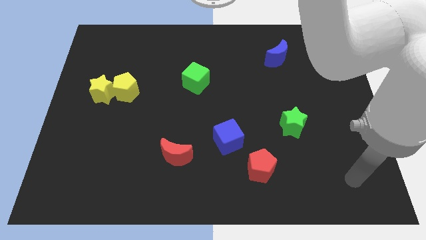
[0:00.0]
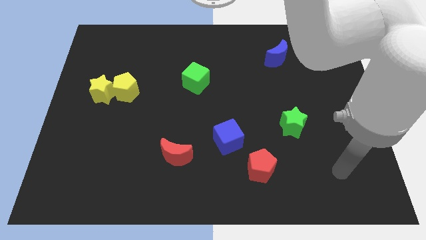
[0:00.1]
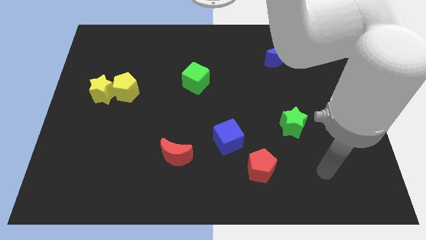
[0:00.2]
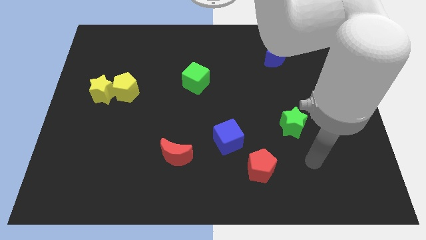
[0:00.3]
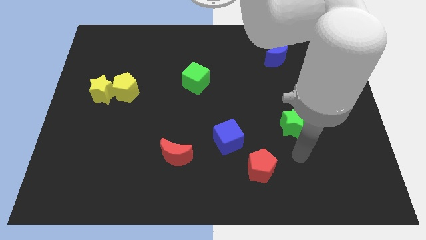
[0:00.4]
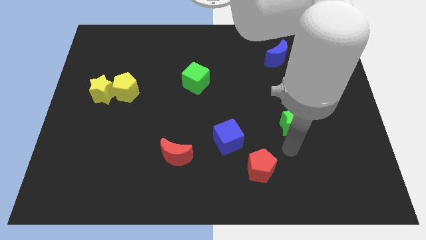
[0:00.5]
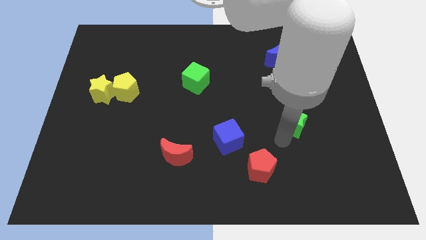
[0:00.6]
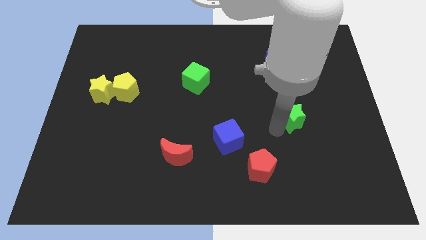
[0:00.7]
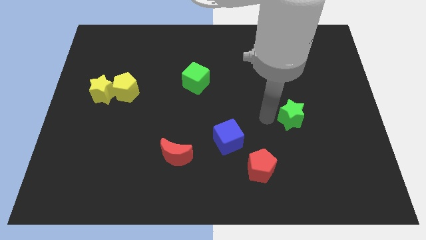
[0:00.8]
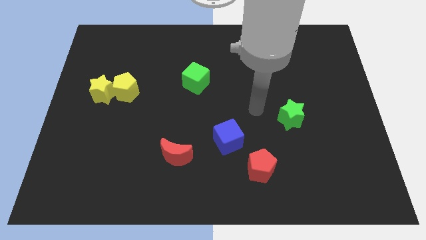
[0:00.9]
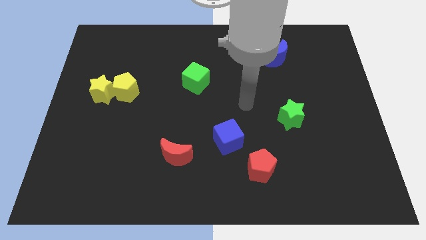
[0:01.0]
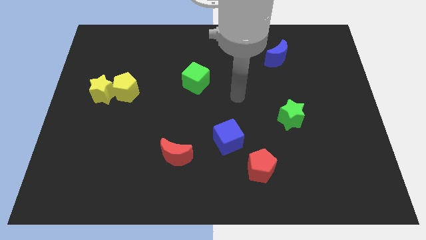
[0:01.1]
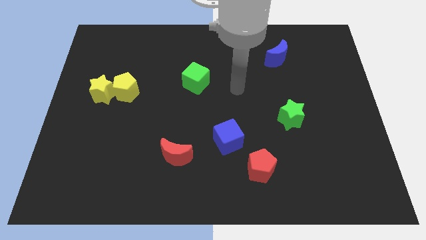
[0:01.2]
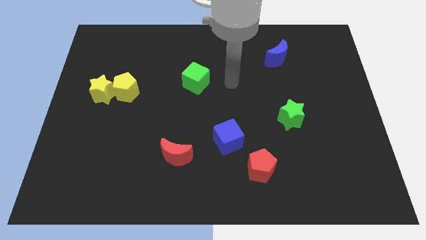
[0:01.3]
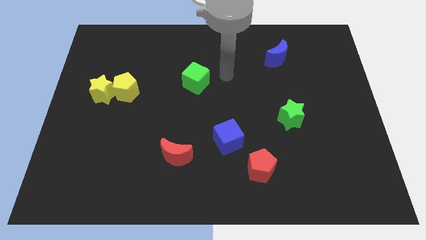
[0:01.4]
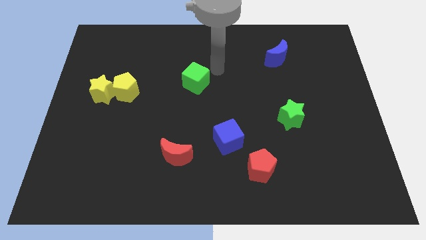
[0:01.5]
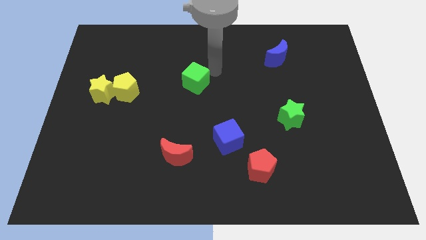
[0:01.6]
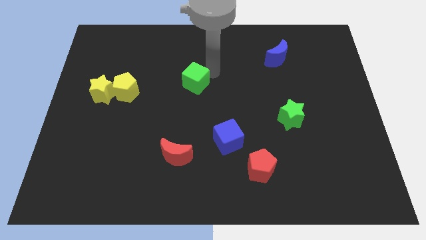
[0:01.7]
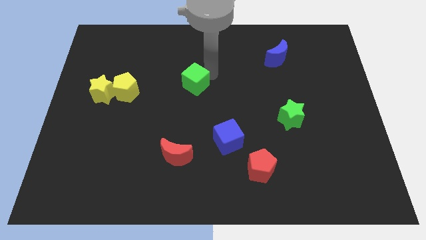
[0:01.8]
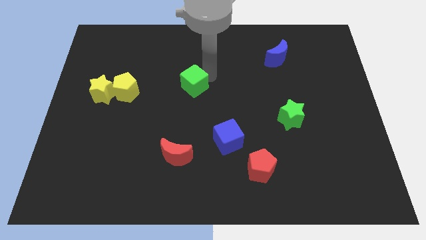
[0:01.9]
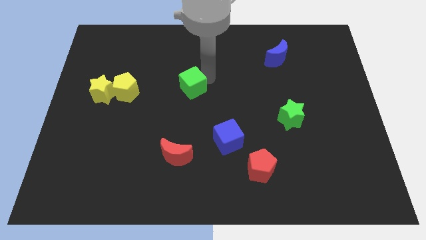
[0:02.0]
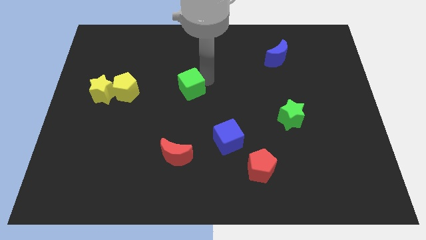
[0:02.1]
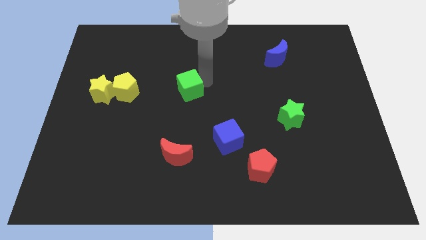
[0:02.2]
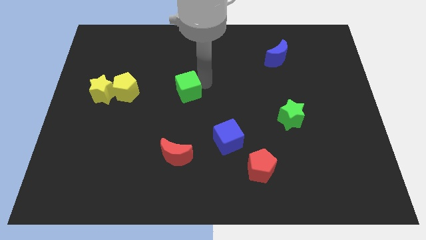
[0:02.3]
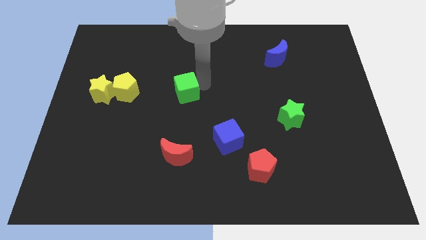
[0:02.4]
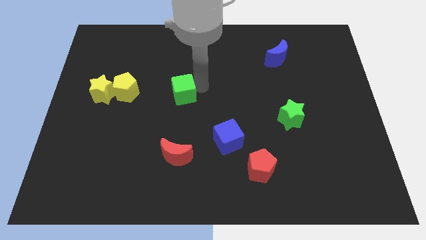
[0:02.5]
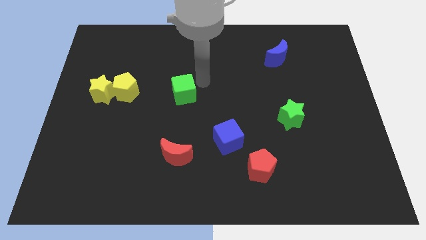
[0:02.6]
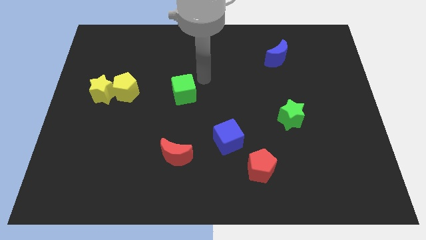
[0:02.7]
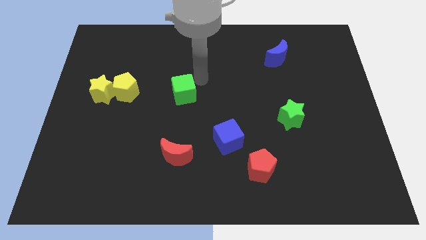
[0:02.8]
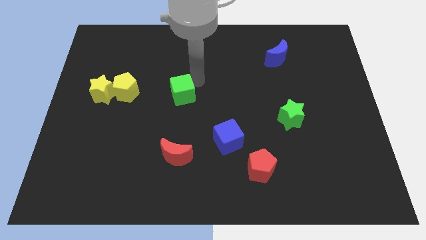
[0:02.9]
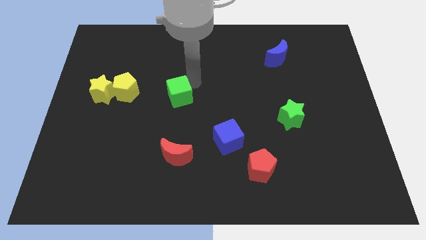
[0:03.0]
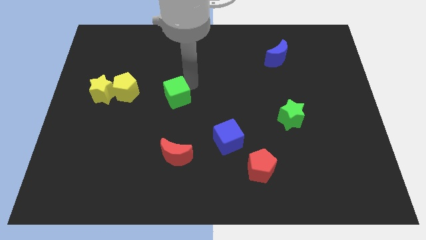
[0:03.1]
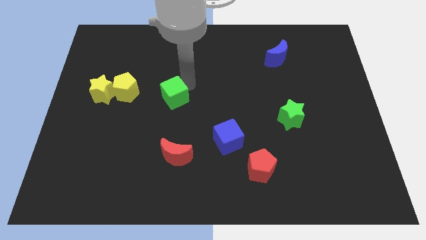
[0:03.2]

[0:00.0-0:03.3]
slide the green cube somewhat downwards and to the left

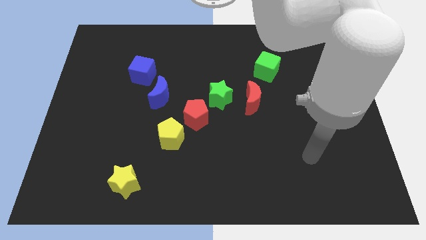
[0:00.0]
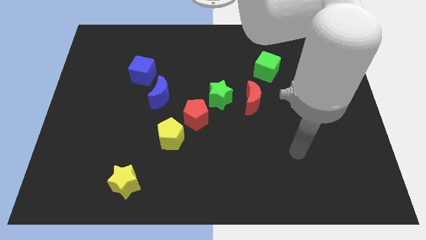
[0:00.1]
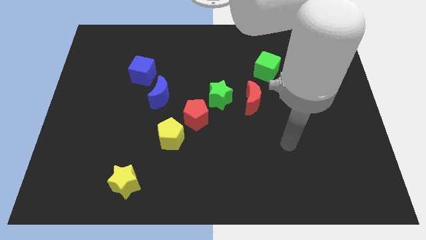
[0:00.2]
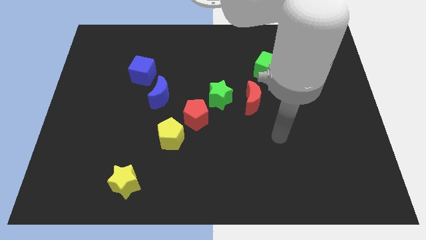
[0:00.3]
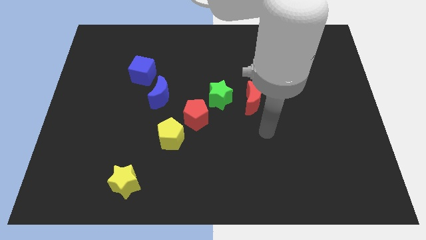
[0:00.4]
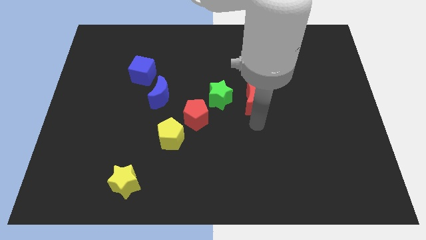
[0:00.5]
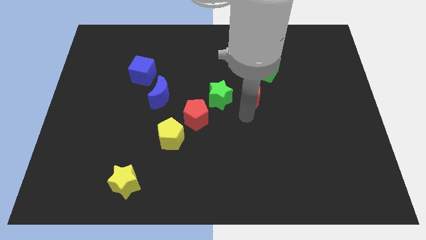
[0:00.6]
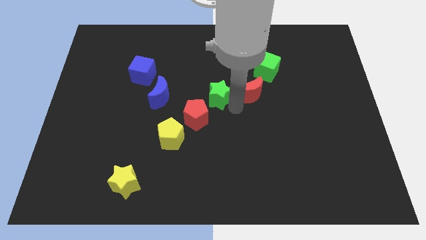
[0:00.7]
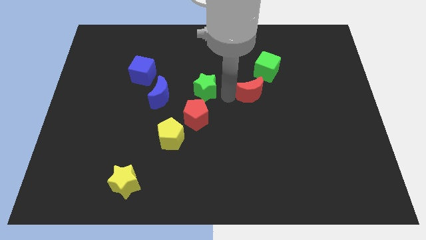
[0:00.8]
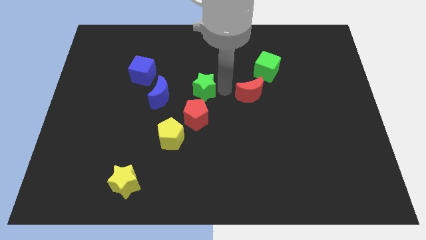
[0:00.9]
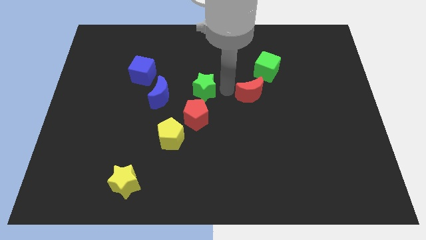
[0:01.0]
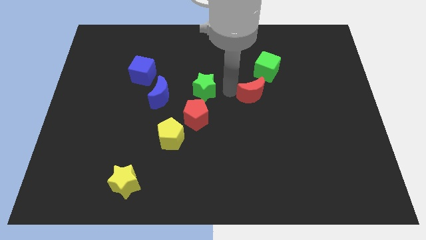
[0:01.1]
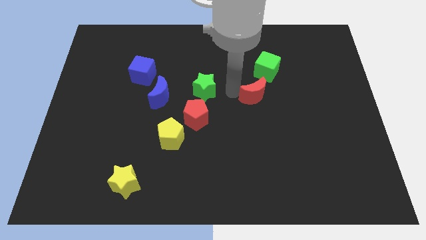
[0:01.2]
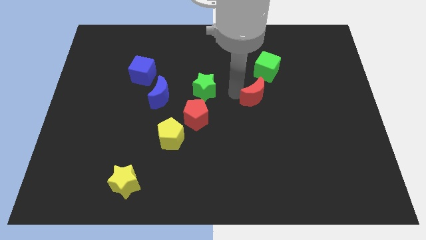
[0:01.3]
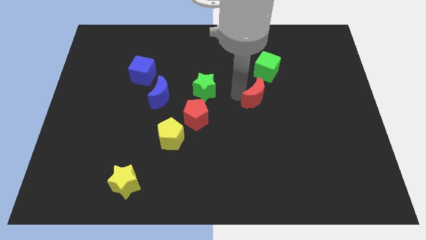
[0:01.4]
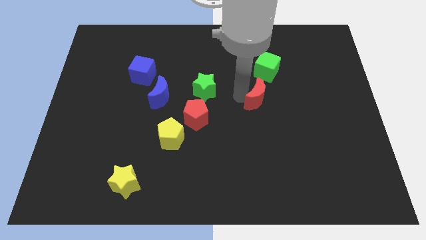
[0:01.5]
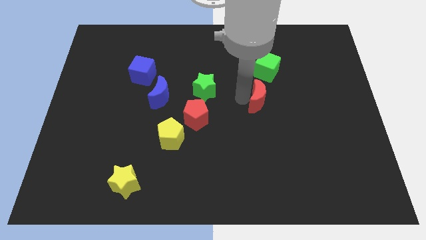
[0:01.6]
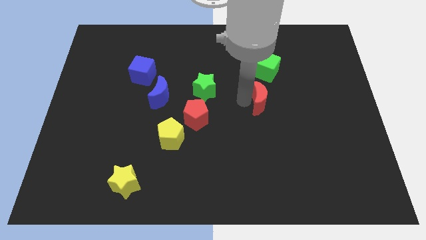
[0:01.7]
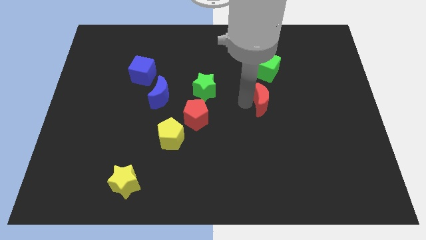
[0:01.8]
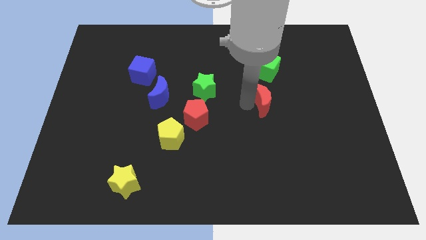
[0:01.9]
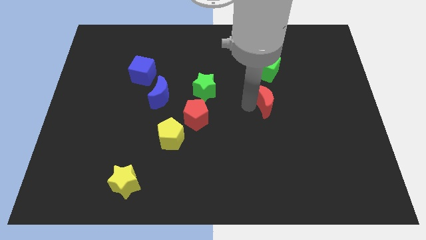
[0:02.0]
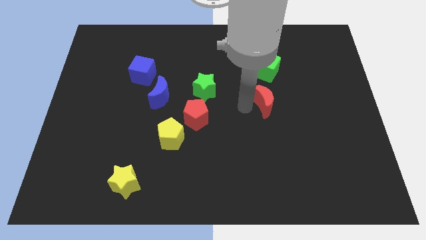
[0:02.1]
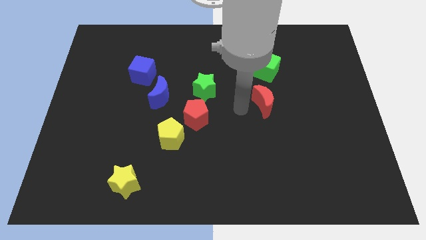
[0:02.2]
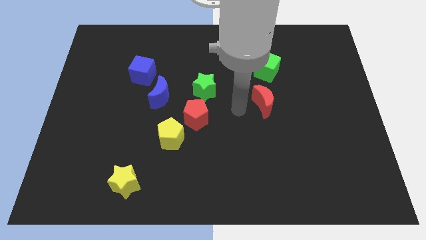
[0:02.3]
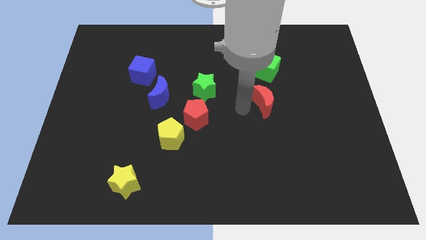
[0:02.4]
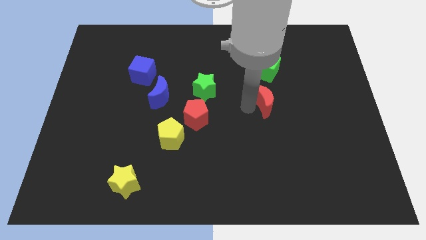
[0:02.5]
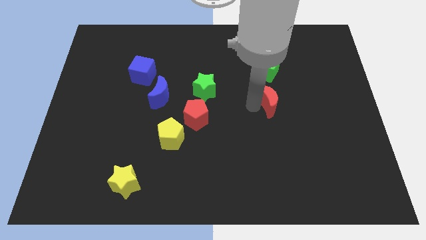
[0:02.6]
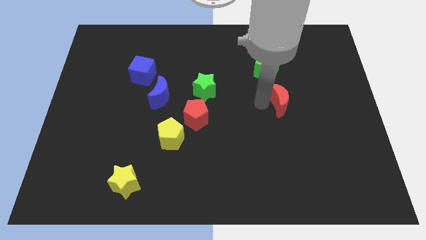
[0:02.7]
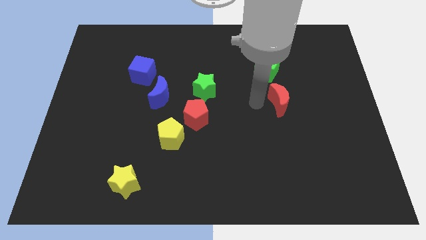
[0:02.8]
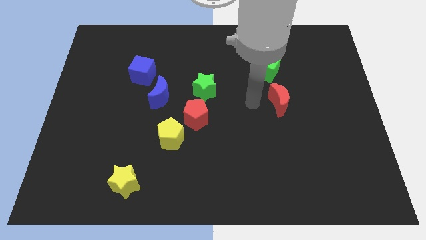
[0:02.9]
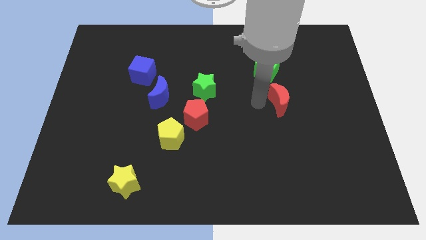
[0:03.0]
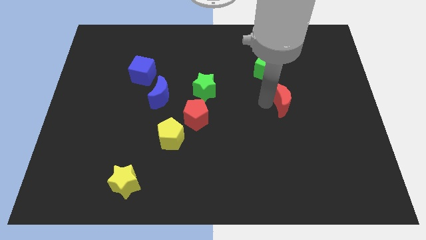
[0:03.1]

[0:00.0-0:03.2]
move the red moon a little bit to the right

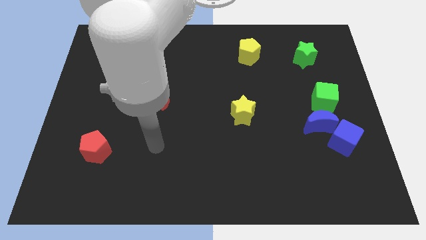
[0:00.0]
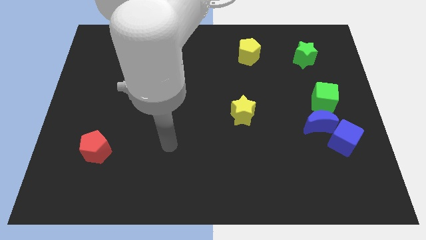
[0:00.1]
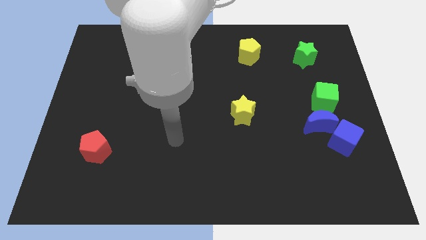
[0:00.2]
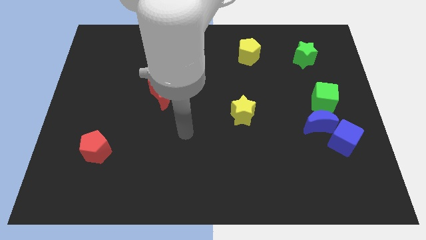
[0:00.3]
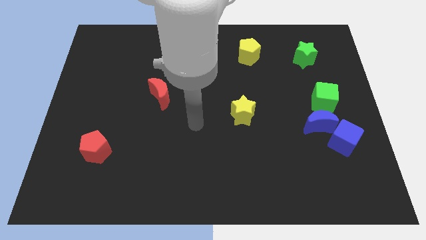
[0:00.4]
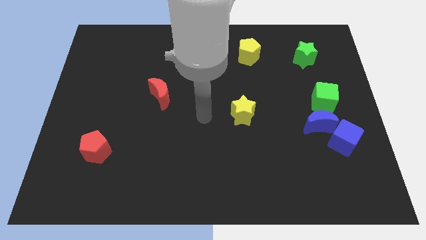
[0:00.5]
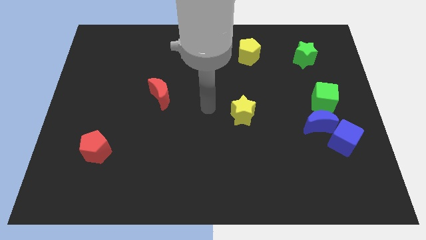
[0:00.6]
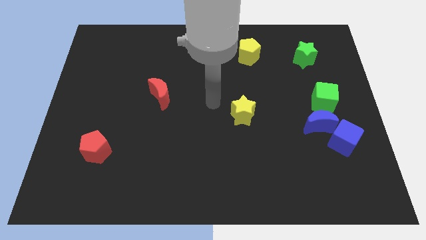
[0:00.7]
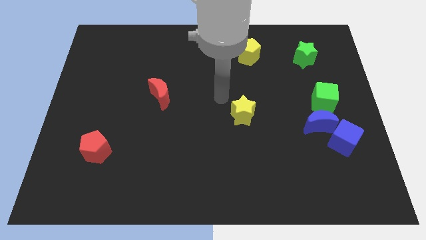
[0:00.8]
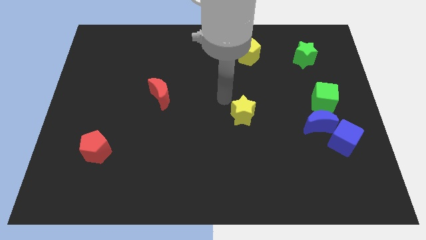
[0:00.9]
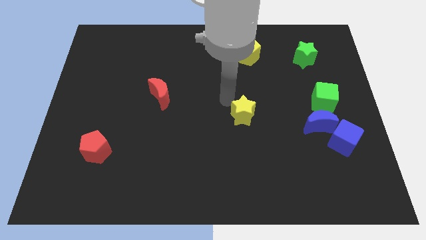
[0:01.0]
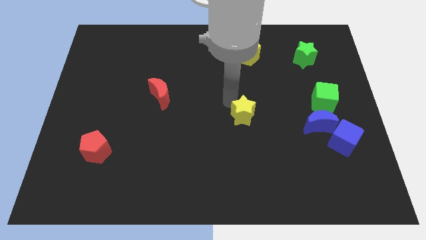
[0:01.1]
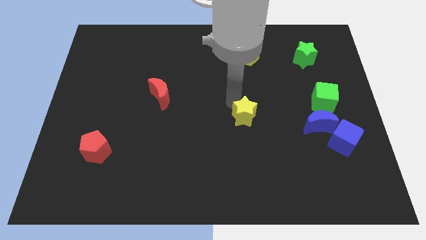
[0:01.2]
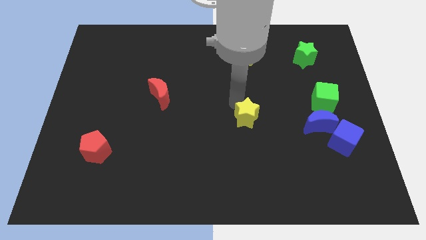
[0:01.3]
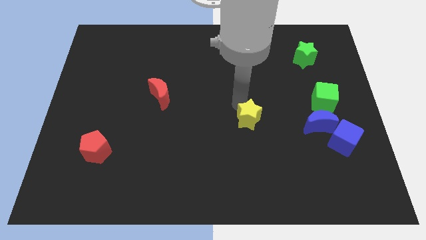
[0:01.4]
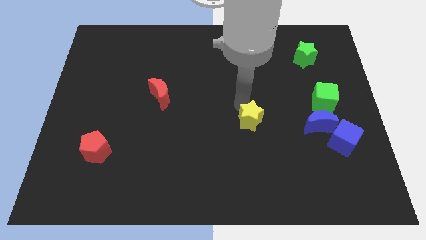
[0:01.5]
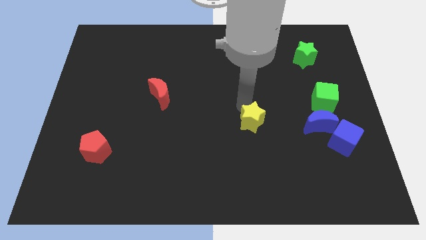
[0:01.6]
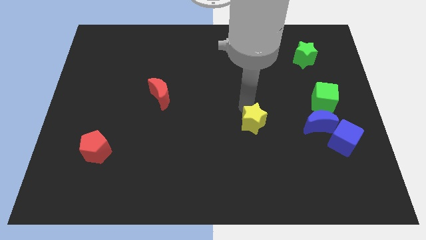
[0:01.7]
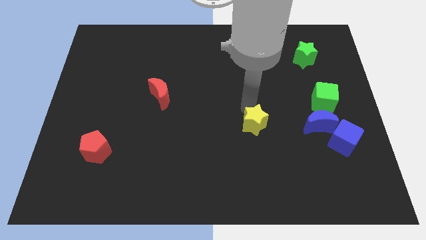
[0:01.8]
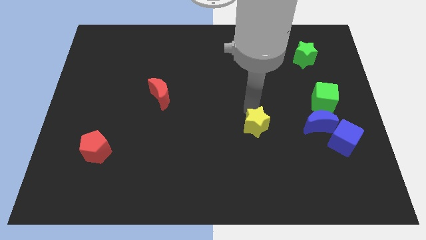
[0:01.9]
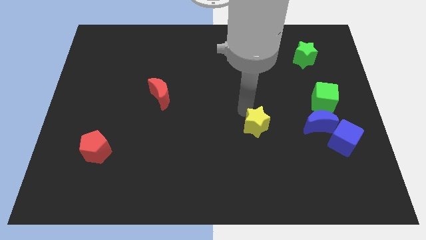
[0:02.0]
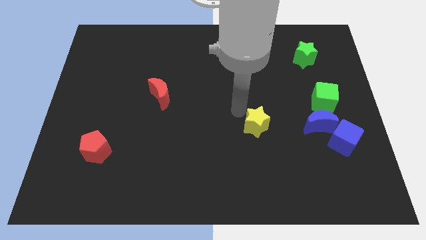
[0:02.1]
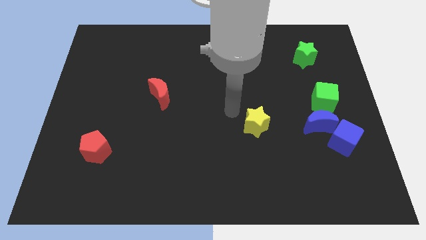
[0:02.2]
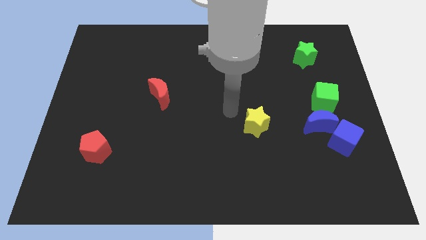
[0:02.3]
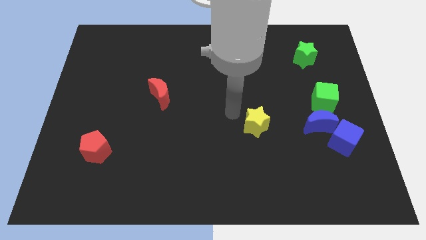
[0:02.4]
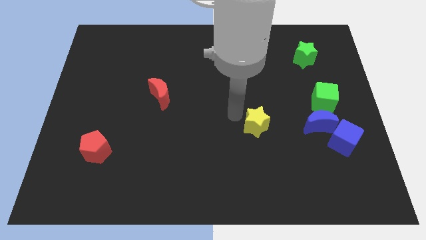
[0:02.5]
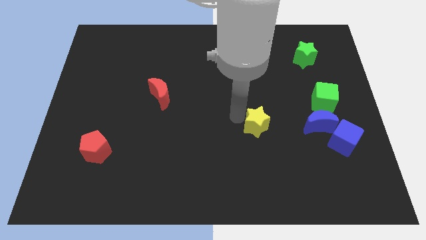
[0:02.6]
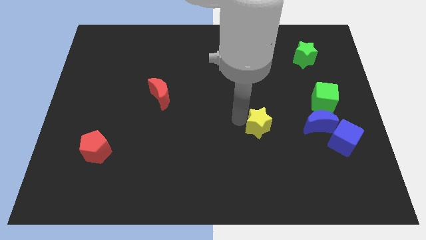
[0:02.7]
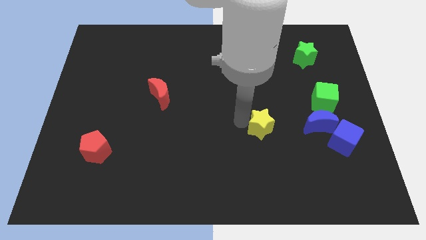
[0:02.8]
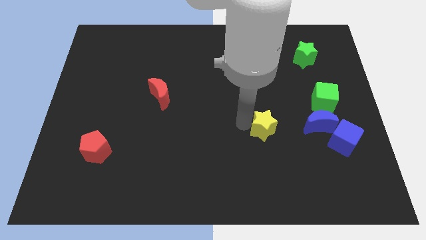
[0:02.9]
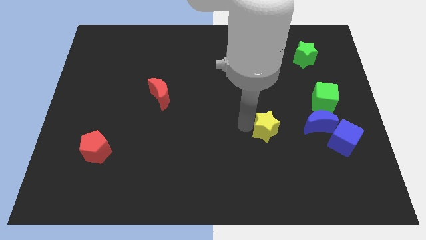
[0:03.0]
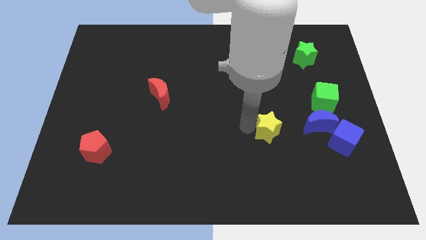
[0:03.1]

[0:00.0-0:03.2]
slightly push the yellow star diagonally downwards and to the right
